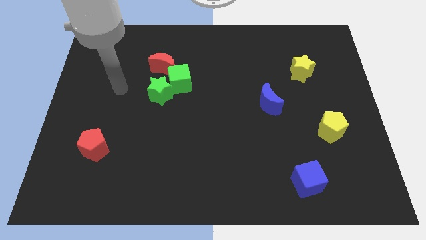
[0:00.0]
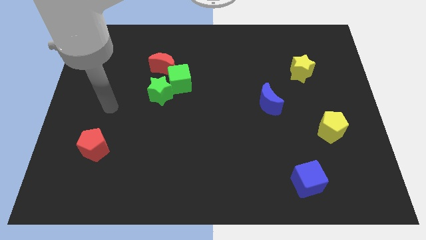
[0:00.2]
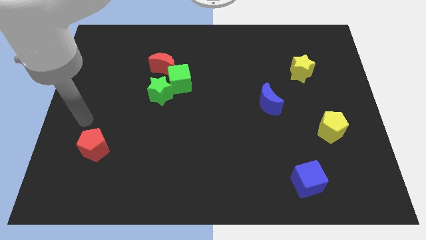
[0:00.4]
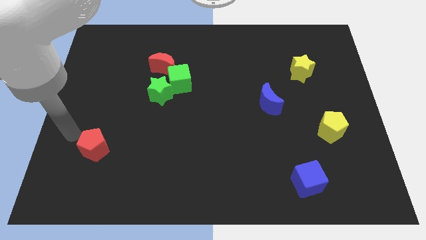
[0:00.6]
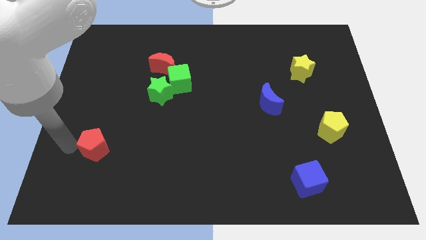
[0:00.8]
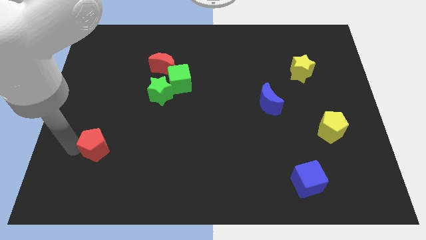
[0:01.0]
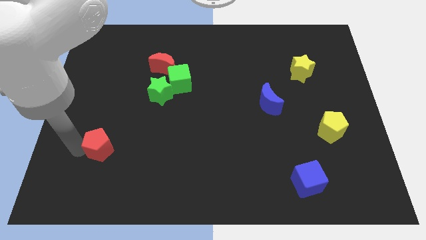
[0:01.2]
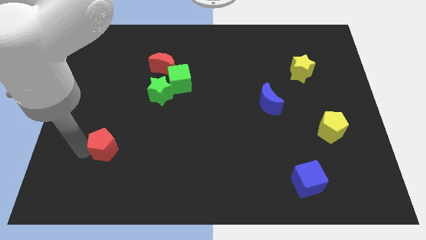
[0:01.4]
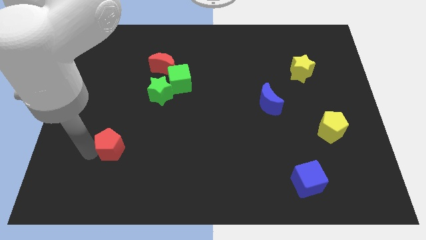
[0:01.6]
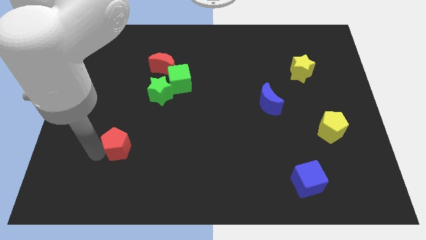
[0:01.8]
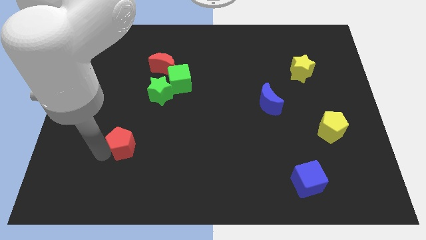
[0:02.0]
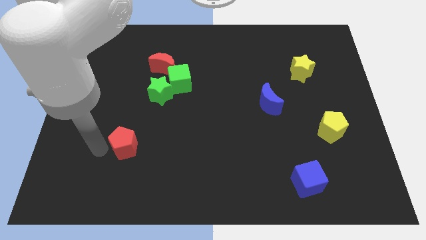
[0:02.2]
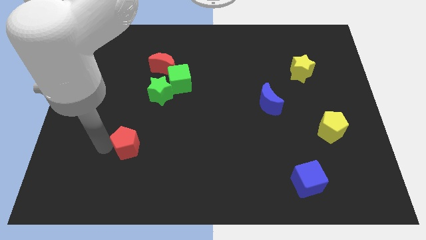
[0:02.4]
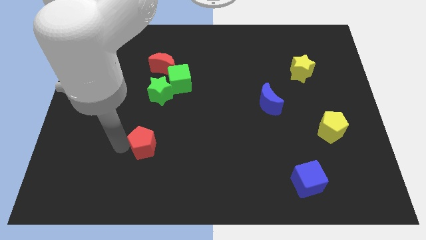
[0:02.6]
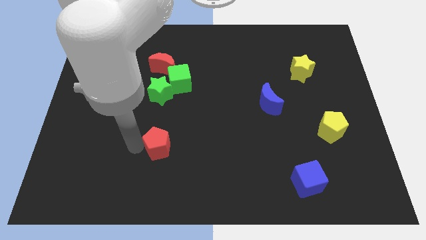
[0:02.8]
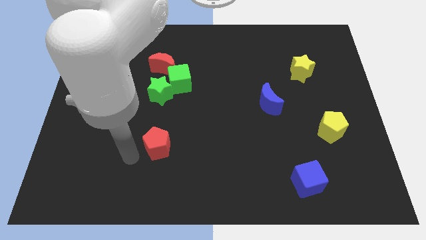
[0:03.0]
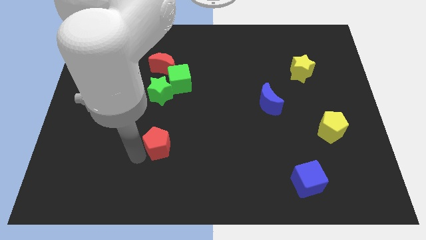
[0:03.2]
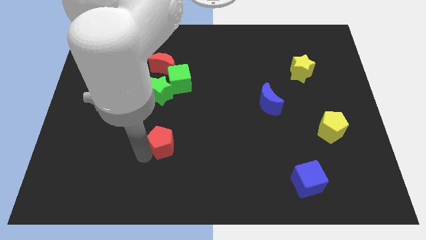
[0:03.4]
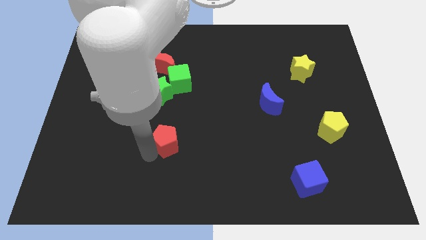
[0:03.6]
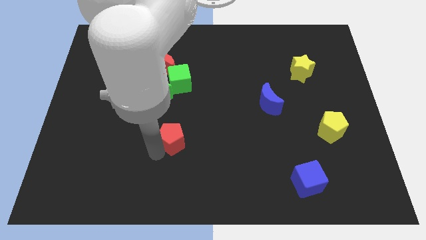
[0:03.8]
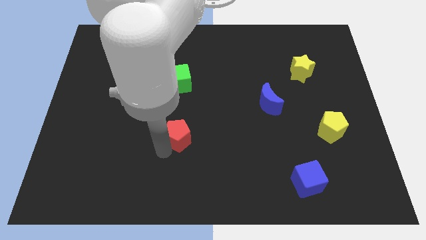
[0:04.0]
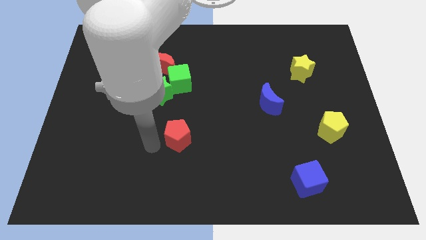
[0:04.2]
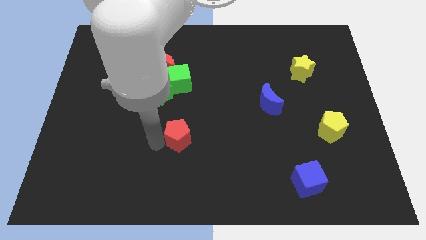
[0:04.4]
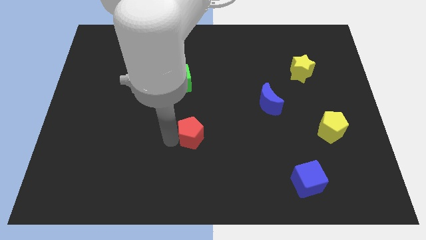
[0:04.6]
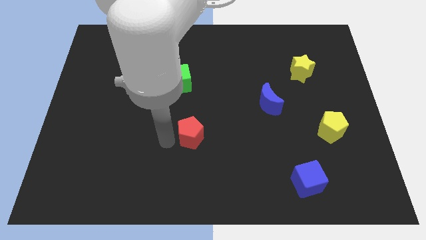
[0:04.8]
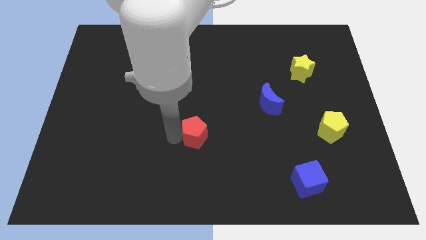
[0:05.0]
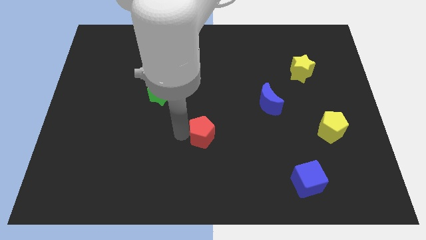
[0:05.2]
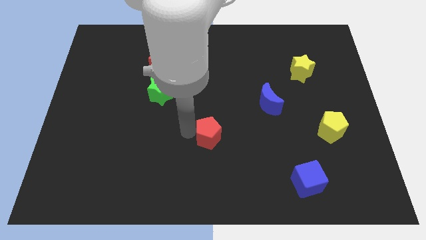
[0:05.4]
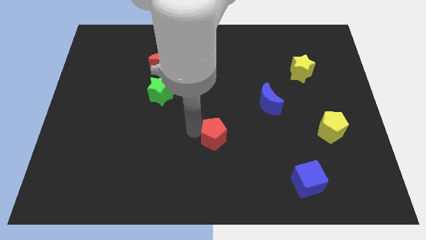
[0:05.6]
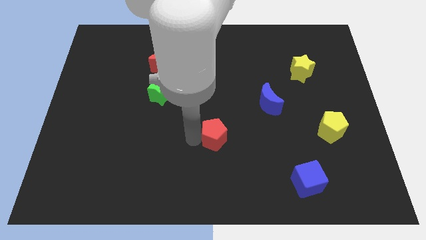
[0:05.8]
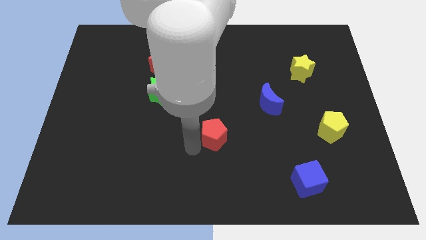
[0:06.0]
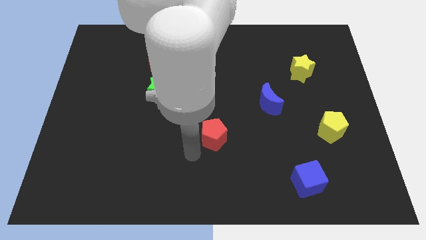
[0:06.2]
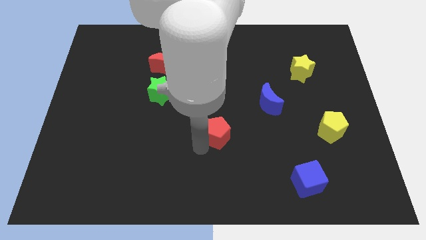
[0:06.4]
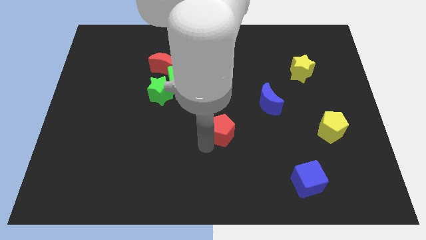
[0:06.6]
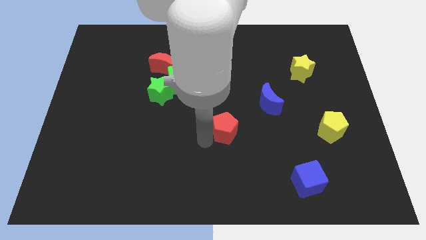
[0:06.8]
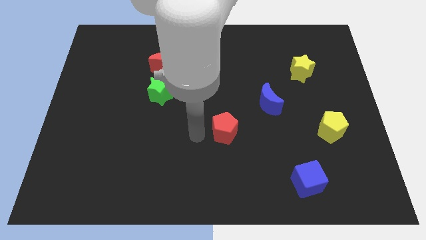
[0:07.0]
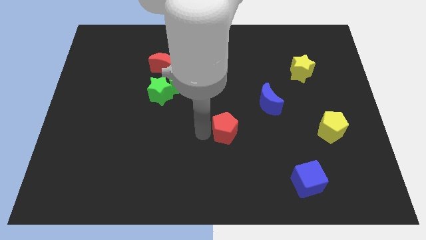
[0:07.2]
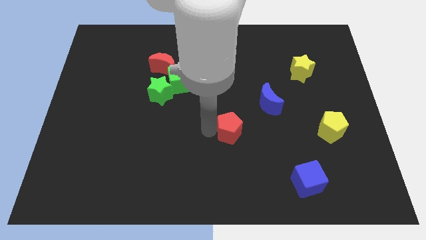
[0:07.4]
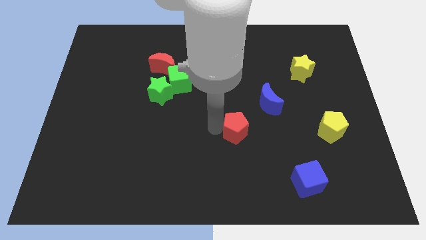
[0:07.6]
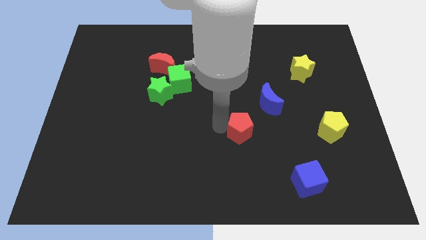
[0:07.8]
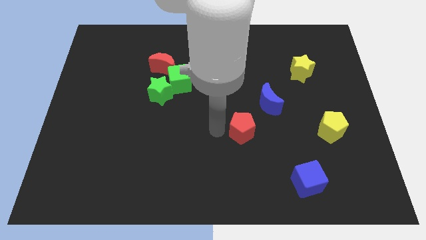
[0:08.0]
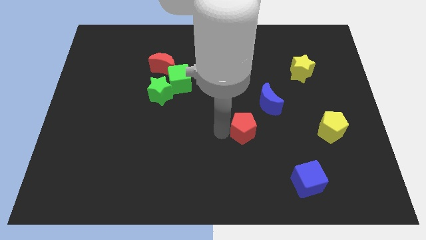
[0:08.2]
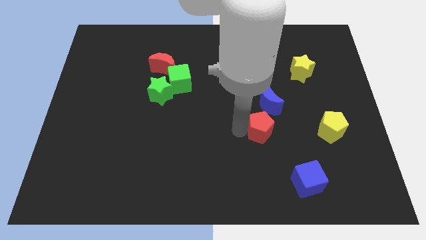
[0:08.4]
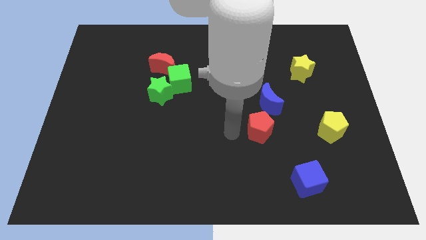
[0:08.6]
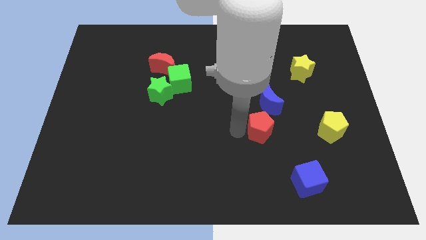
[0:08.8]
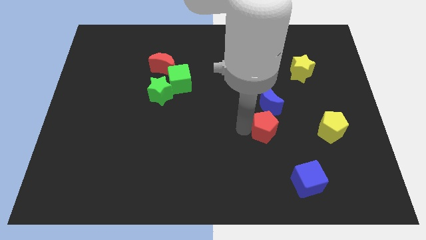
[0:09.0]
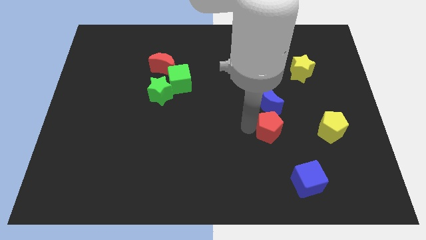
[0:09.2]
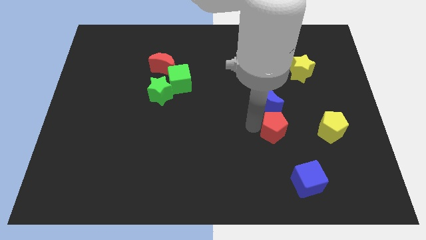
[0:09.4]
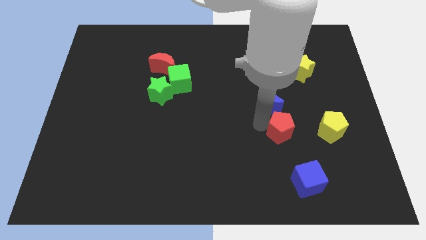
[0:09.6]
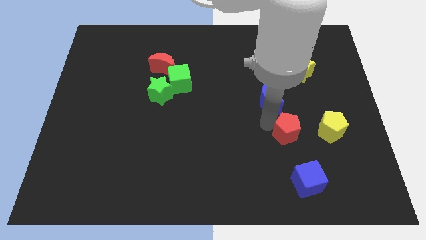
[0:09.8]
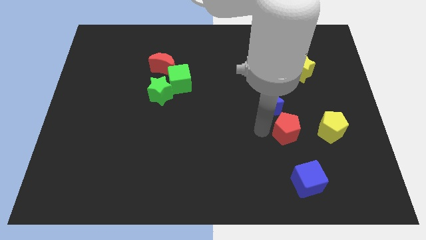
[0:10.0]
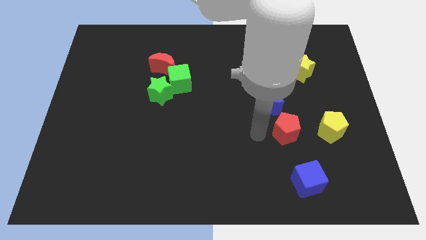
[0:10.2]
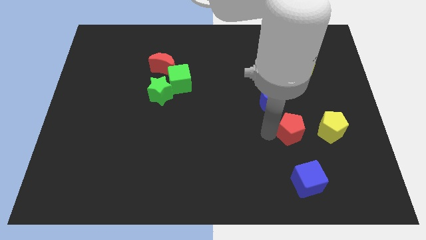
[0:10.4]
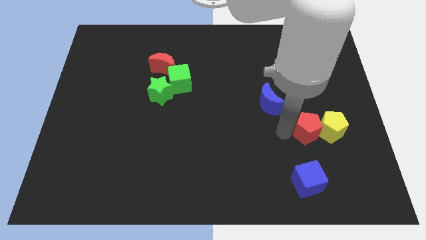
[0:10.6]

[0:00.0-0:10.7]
move the red pentagon close to the yellow pentagon

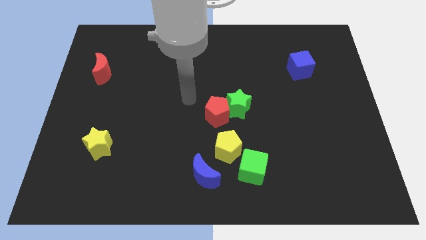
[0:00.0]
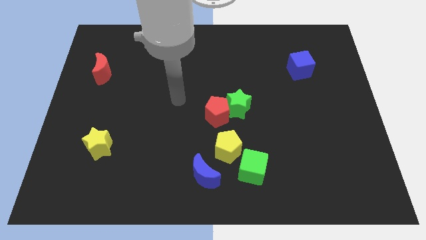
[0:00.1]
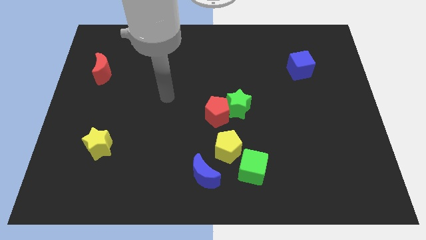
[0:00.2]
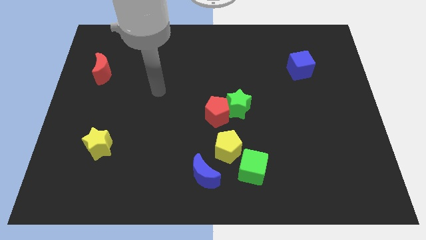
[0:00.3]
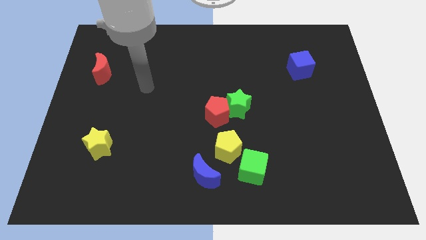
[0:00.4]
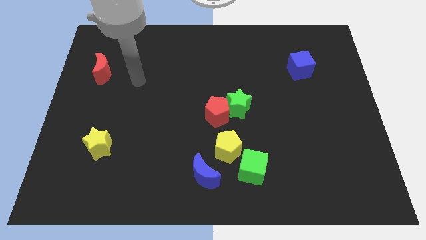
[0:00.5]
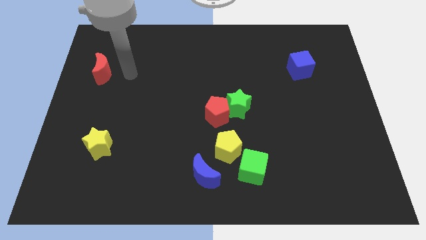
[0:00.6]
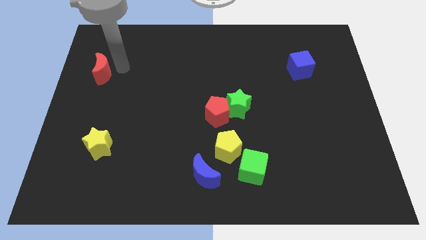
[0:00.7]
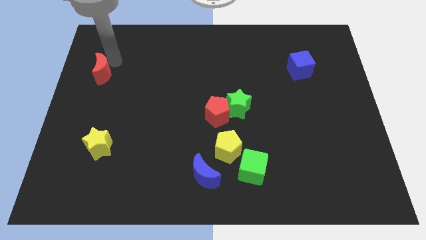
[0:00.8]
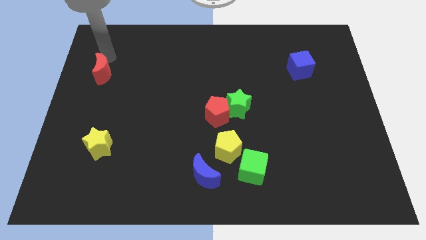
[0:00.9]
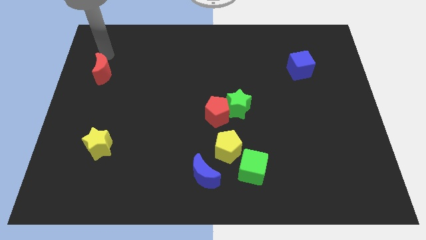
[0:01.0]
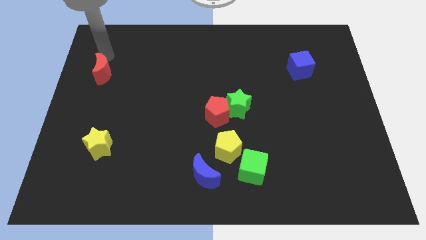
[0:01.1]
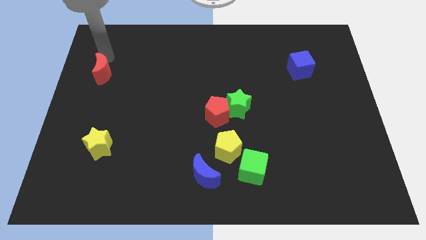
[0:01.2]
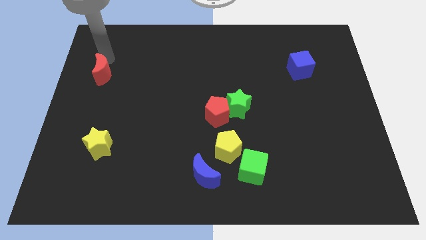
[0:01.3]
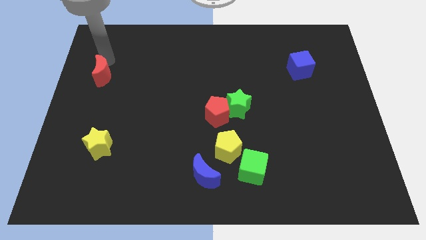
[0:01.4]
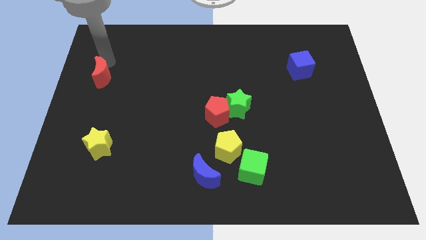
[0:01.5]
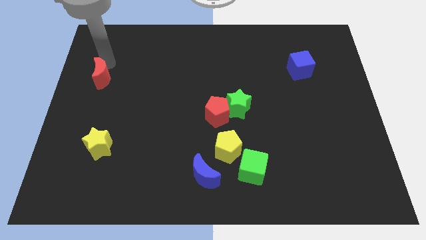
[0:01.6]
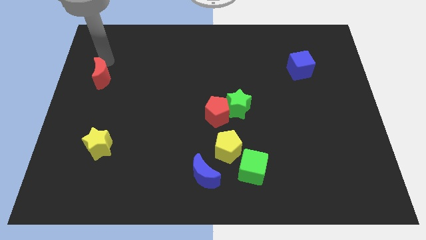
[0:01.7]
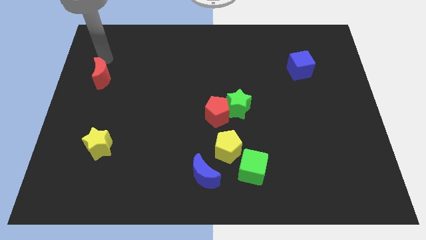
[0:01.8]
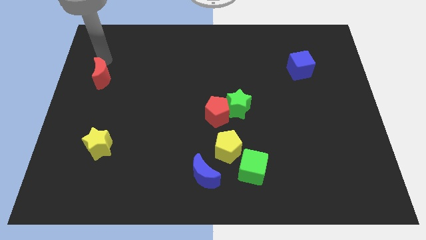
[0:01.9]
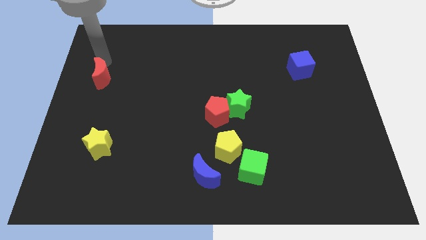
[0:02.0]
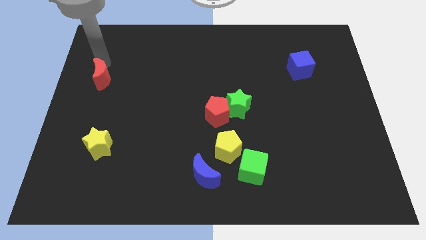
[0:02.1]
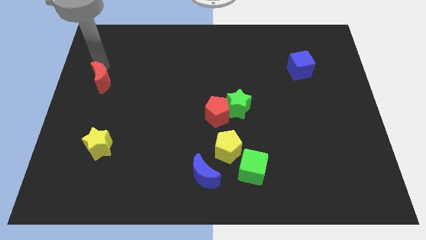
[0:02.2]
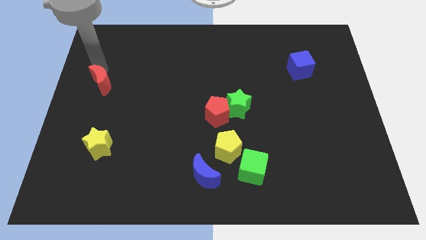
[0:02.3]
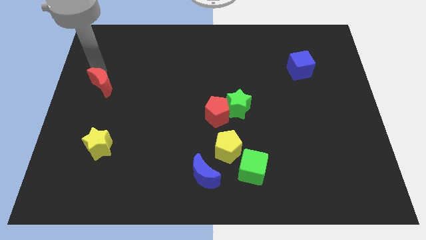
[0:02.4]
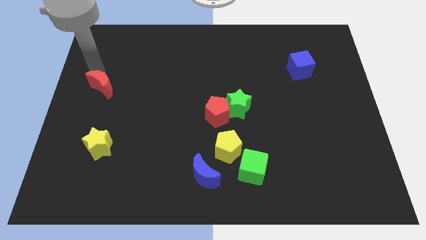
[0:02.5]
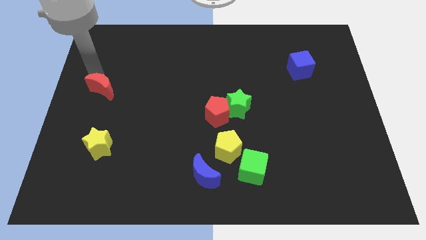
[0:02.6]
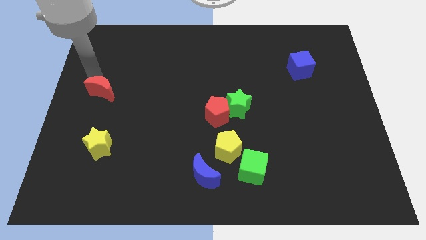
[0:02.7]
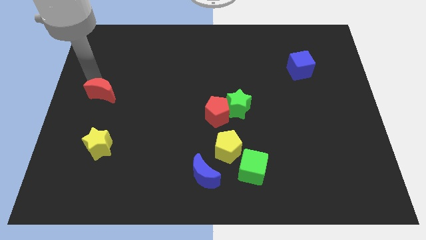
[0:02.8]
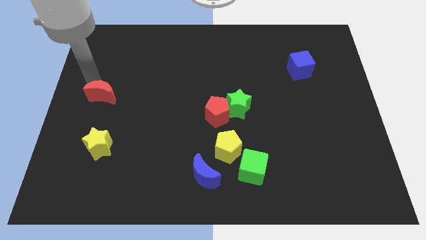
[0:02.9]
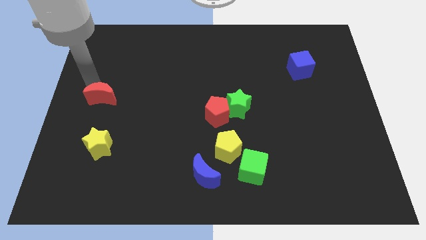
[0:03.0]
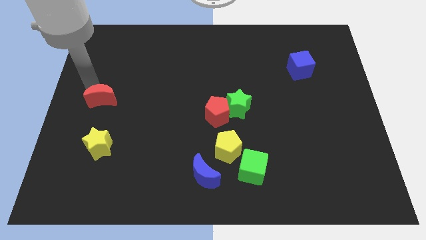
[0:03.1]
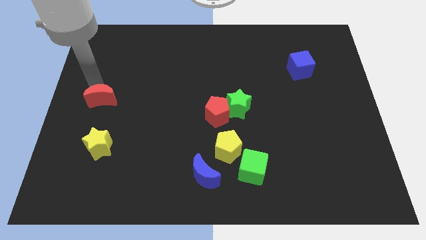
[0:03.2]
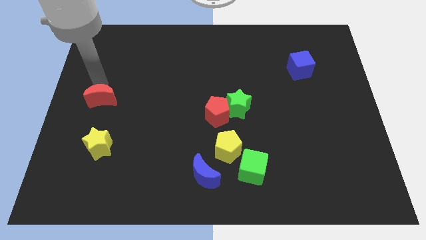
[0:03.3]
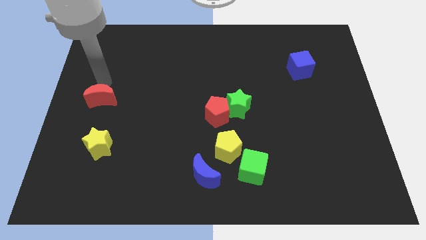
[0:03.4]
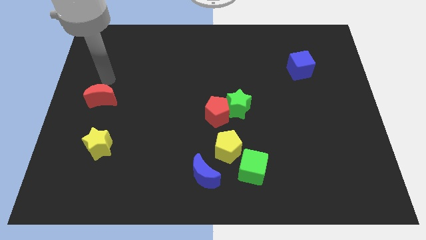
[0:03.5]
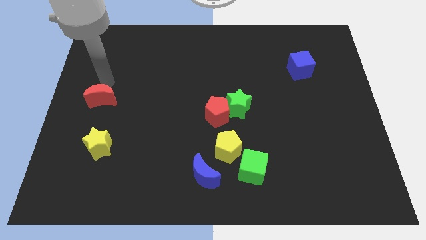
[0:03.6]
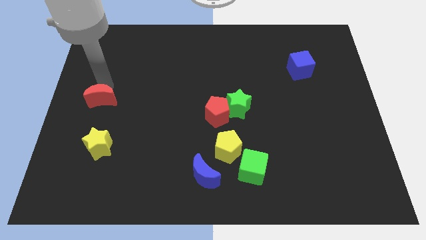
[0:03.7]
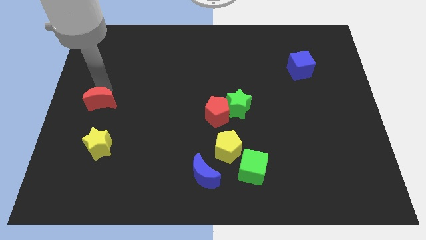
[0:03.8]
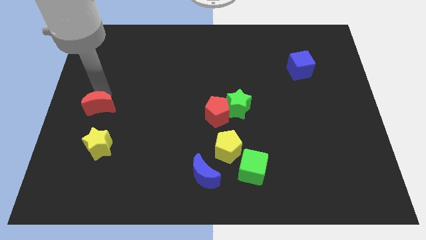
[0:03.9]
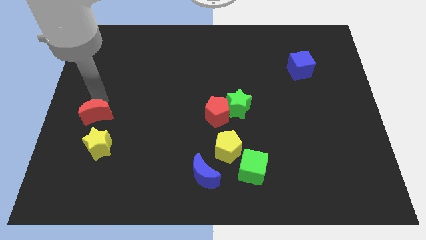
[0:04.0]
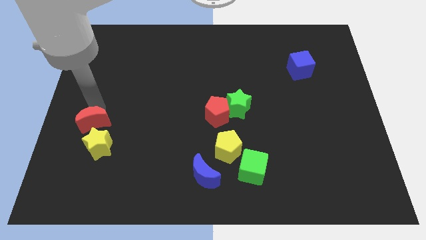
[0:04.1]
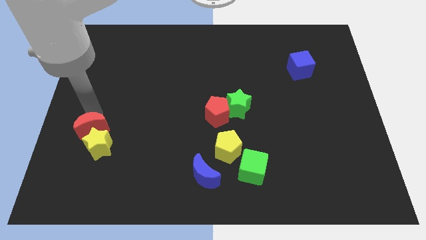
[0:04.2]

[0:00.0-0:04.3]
push the red moon to the yellow star
